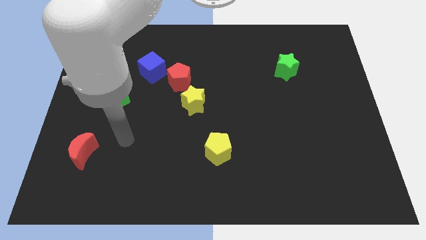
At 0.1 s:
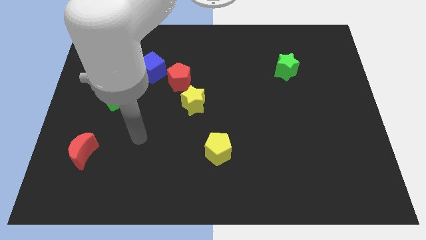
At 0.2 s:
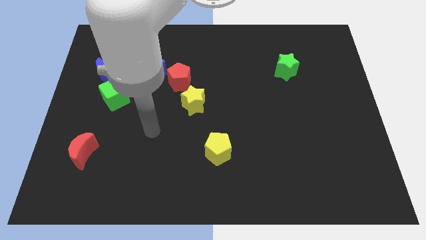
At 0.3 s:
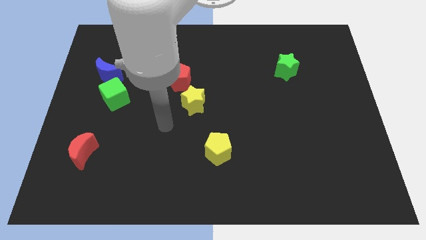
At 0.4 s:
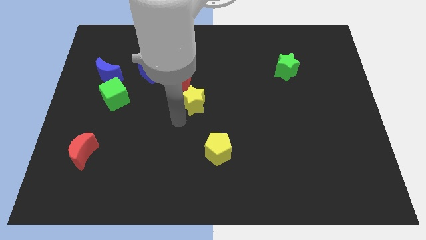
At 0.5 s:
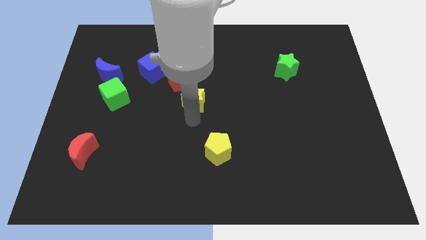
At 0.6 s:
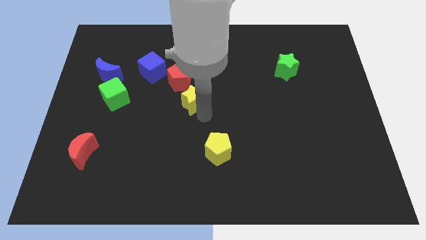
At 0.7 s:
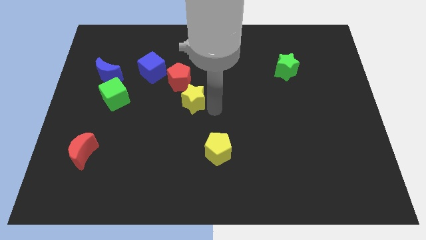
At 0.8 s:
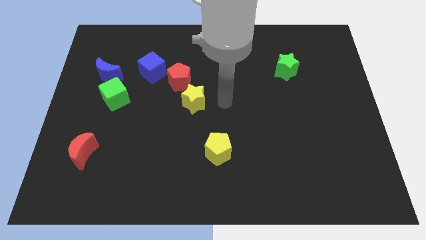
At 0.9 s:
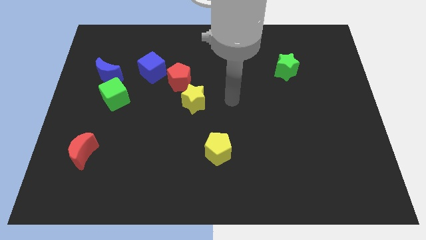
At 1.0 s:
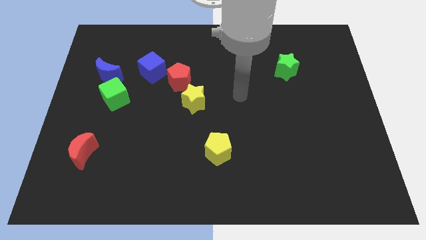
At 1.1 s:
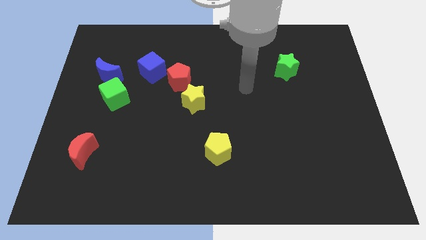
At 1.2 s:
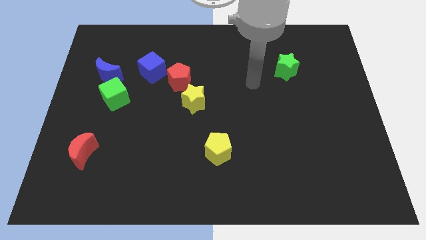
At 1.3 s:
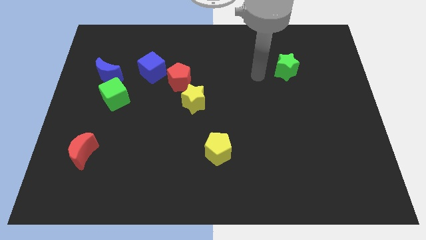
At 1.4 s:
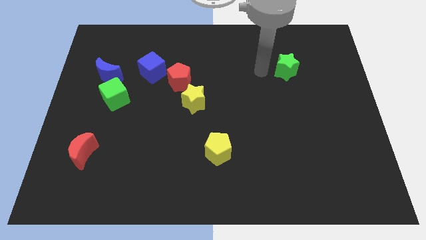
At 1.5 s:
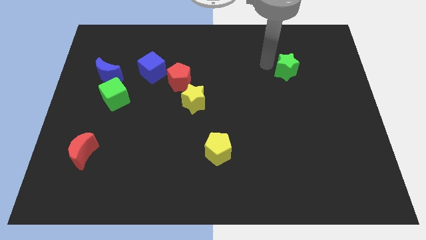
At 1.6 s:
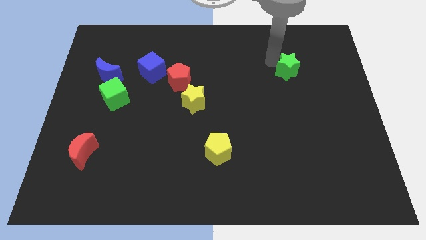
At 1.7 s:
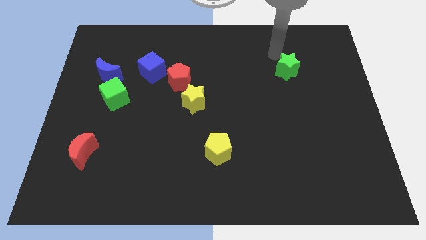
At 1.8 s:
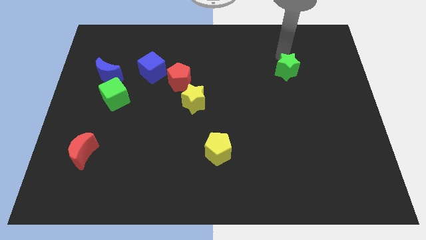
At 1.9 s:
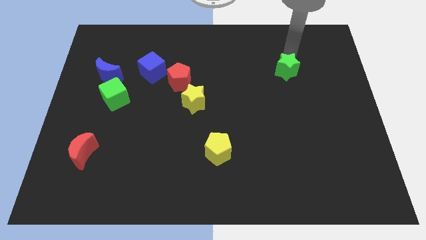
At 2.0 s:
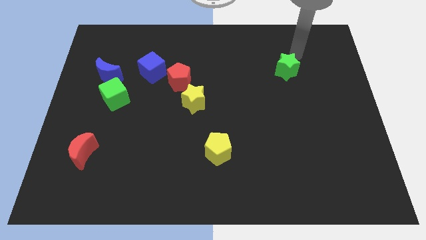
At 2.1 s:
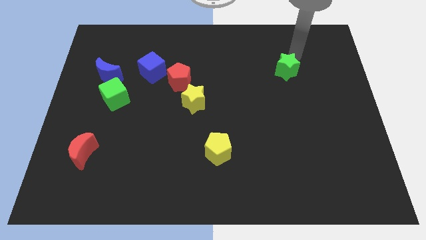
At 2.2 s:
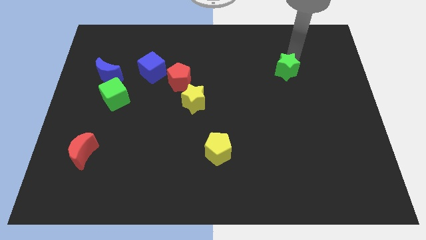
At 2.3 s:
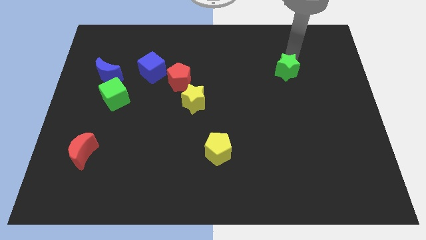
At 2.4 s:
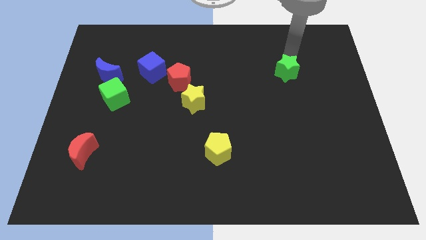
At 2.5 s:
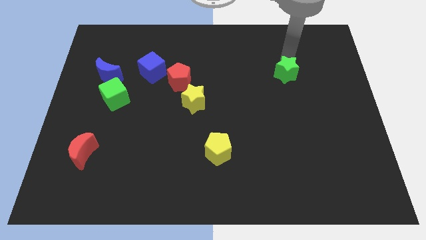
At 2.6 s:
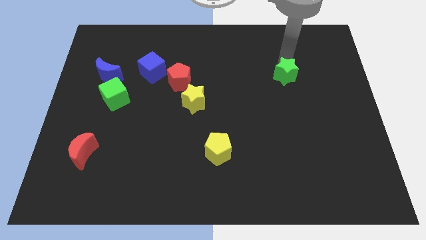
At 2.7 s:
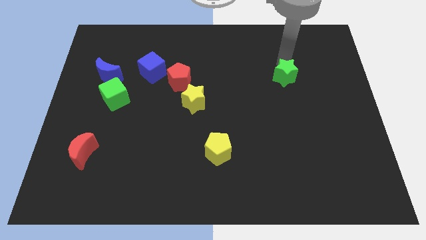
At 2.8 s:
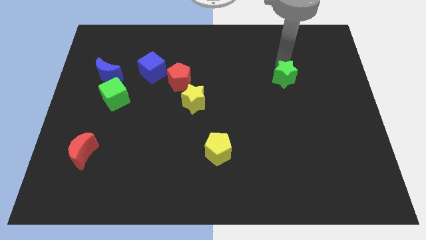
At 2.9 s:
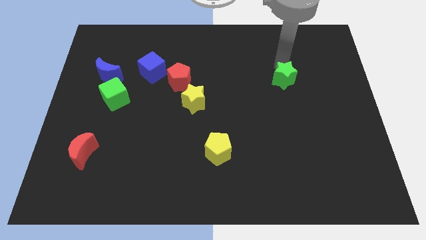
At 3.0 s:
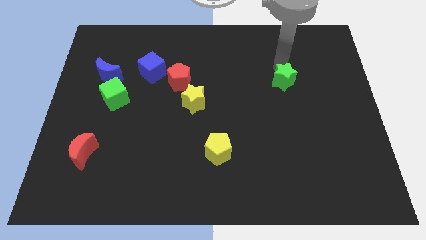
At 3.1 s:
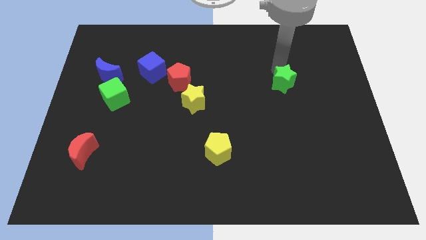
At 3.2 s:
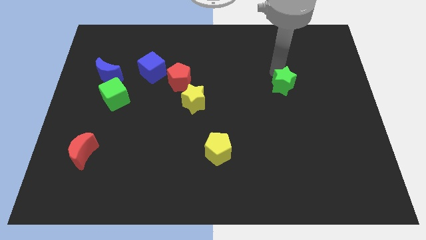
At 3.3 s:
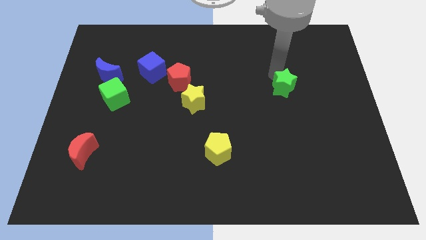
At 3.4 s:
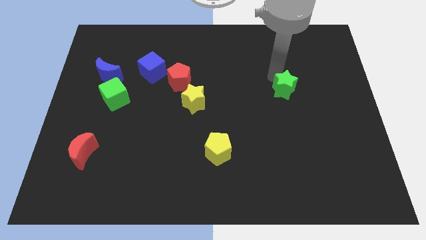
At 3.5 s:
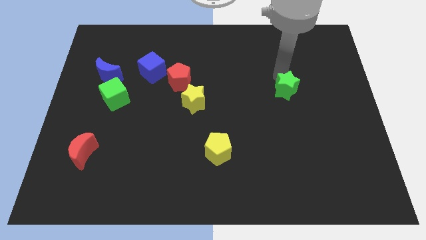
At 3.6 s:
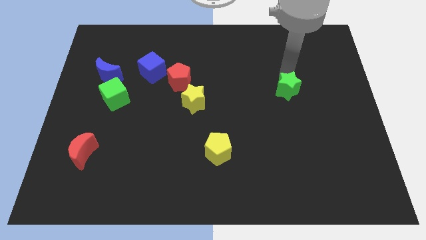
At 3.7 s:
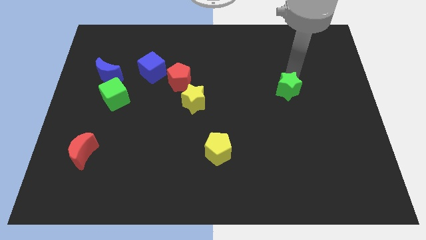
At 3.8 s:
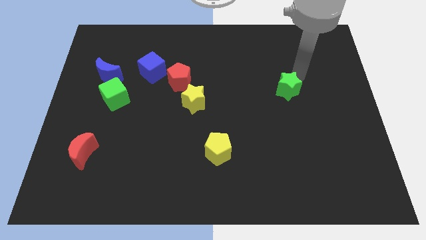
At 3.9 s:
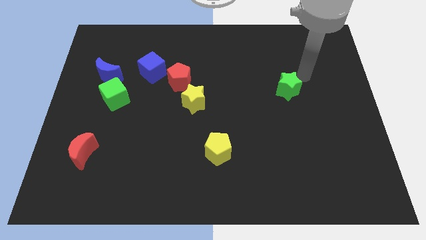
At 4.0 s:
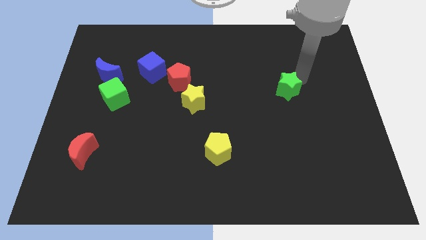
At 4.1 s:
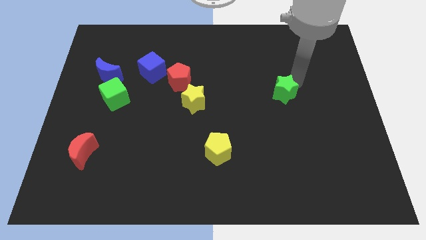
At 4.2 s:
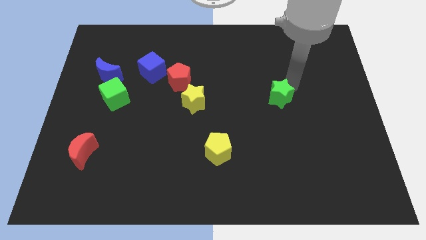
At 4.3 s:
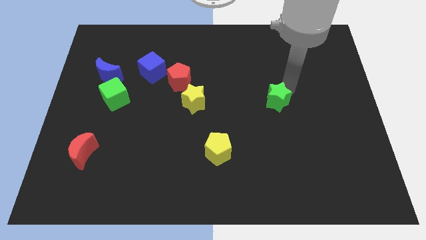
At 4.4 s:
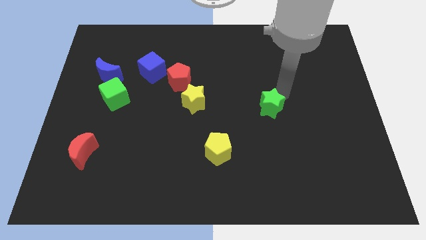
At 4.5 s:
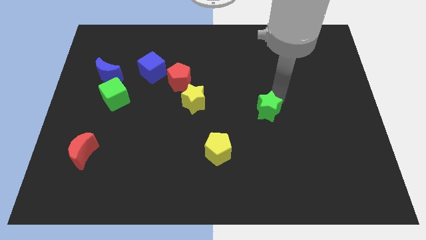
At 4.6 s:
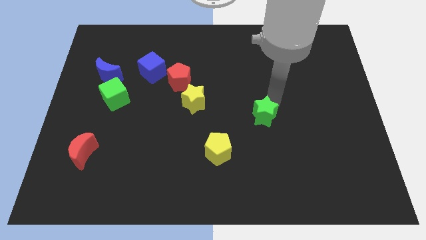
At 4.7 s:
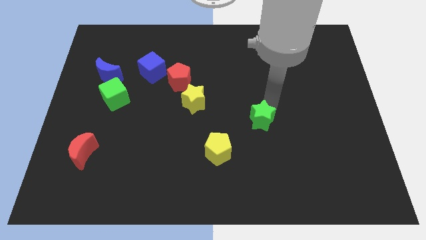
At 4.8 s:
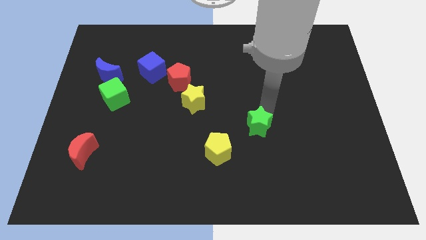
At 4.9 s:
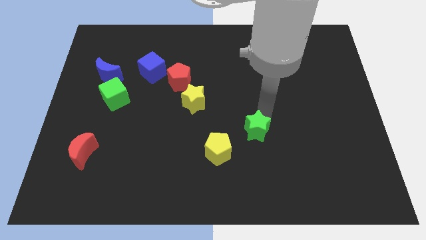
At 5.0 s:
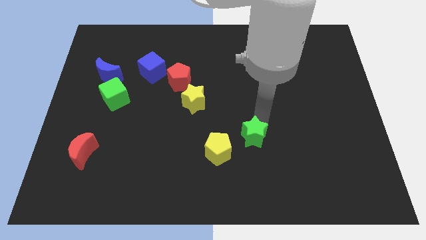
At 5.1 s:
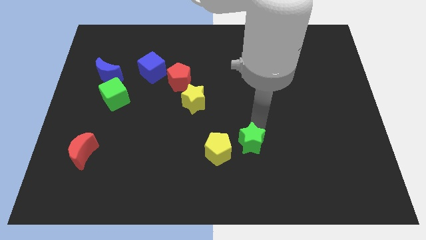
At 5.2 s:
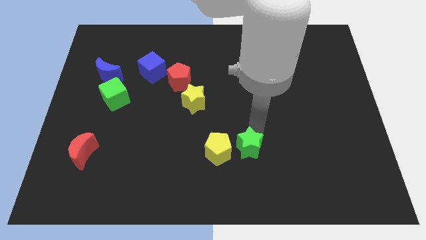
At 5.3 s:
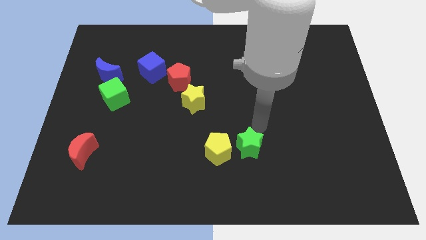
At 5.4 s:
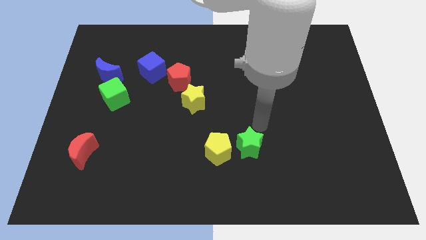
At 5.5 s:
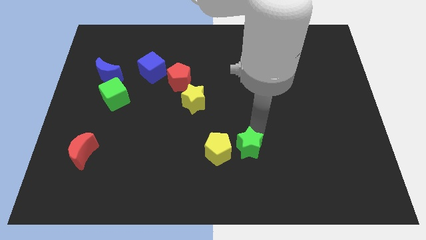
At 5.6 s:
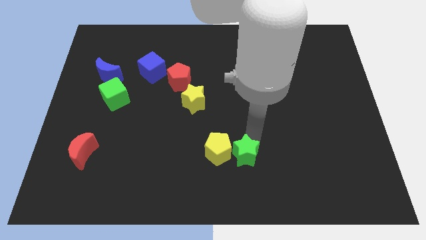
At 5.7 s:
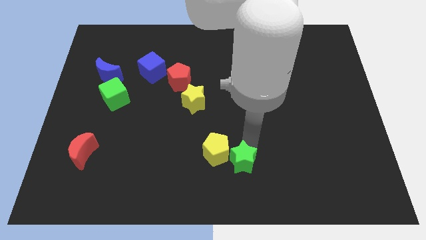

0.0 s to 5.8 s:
slide the green star to the bottom side

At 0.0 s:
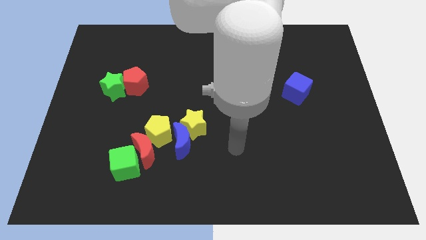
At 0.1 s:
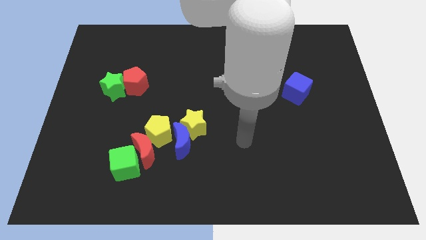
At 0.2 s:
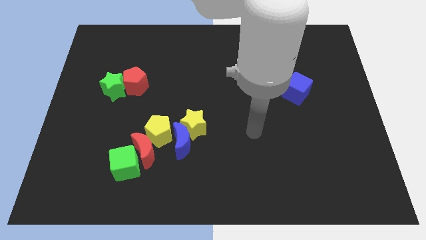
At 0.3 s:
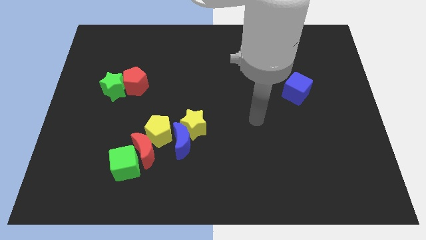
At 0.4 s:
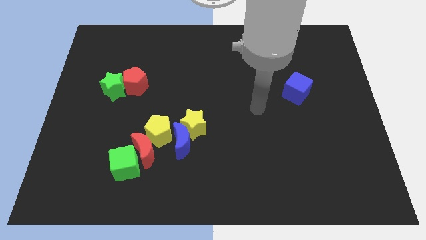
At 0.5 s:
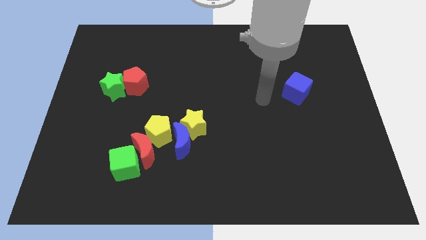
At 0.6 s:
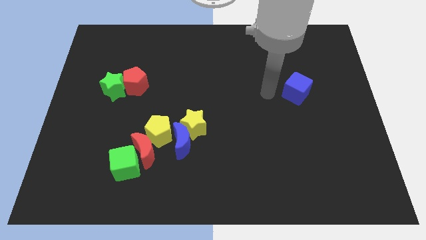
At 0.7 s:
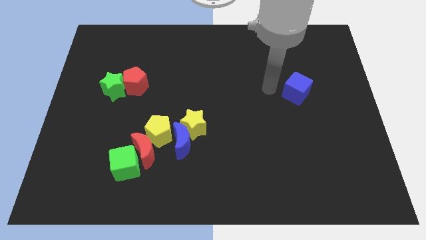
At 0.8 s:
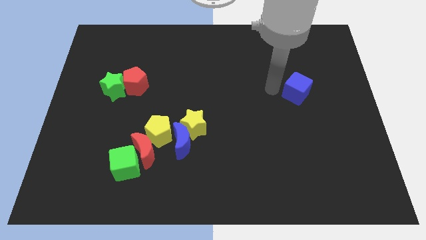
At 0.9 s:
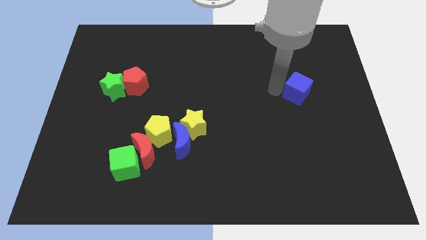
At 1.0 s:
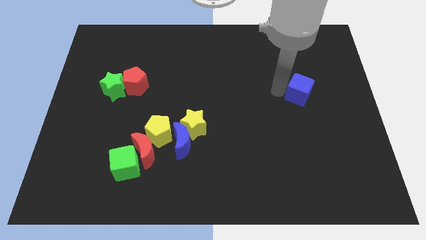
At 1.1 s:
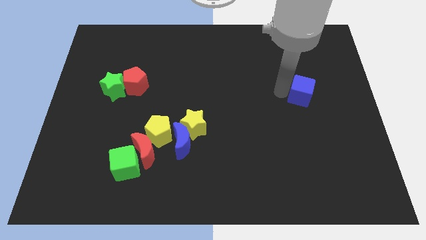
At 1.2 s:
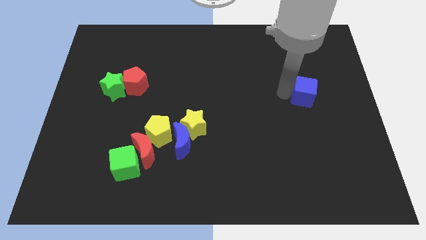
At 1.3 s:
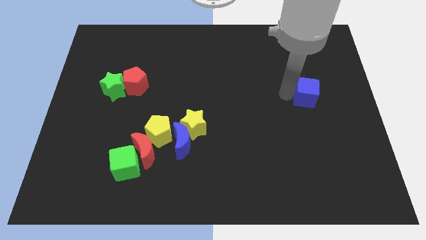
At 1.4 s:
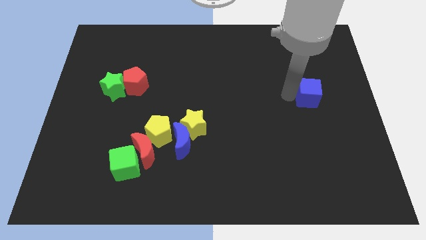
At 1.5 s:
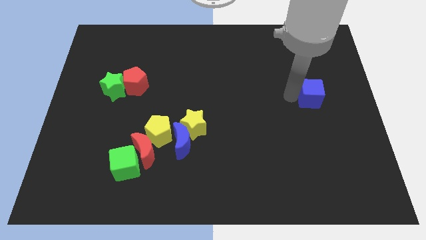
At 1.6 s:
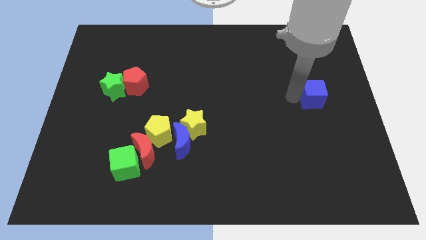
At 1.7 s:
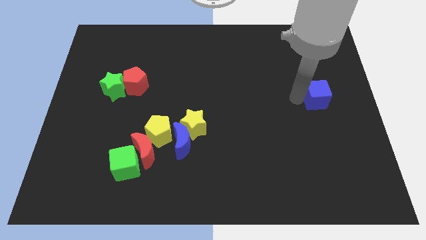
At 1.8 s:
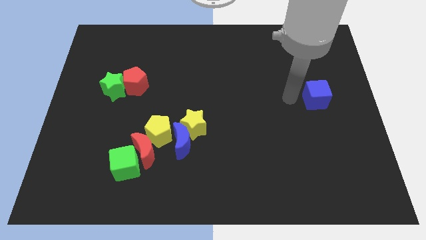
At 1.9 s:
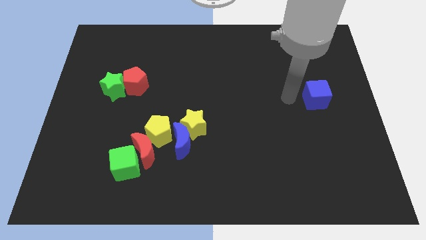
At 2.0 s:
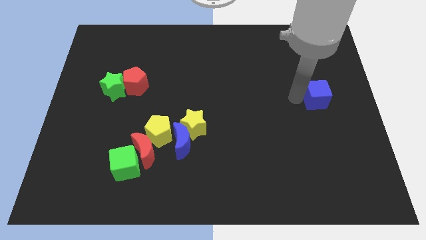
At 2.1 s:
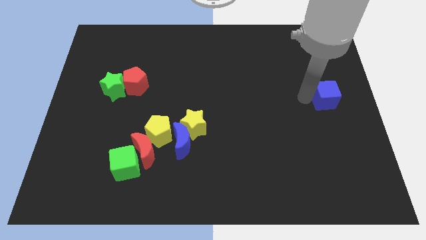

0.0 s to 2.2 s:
push the blue cube to the right side
